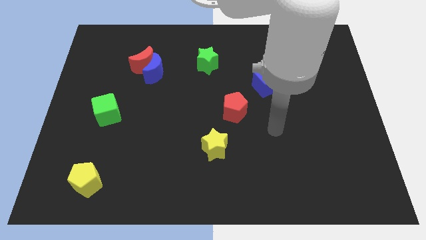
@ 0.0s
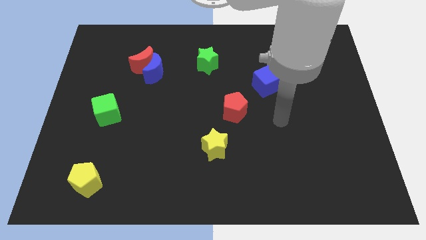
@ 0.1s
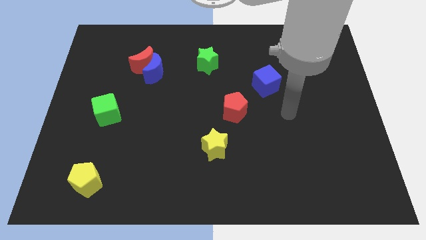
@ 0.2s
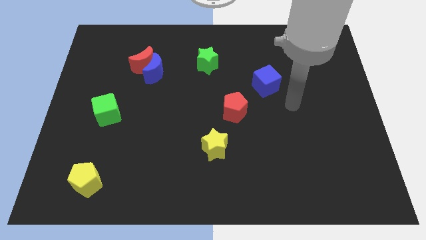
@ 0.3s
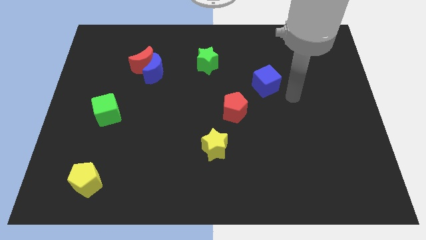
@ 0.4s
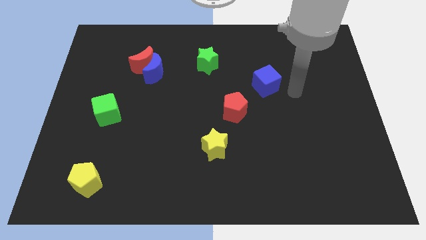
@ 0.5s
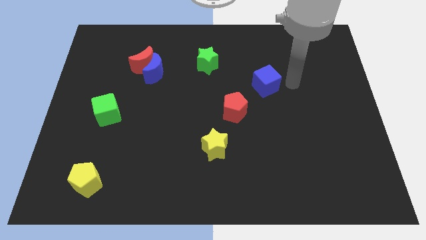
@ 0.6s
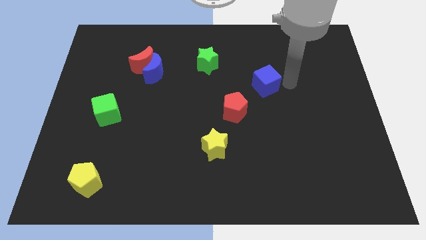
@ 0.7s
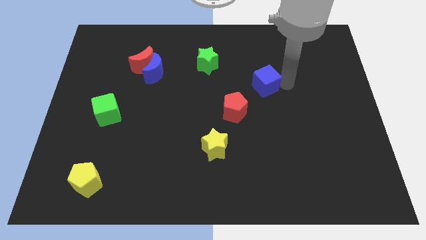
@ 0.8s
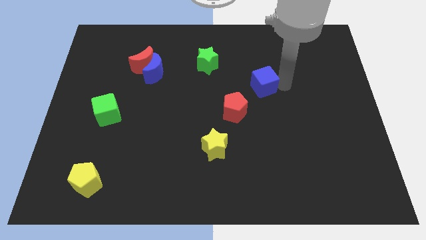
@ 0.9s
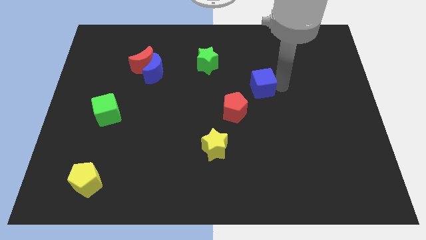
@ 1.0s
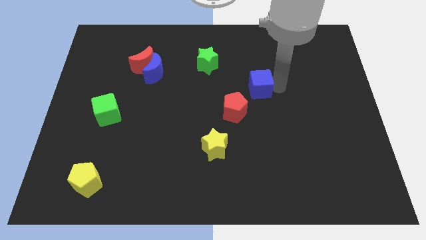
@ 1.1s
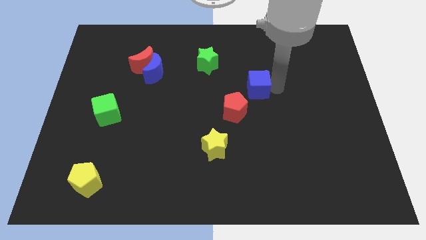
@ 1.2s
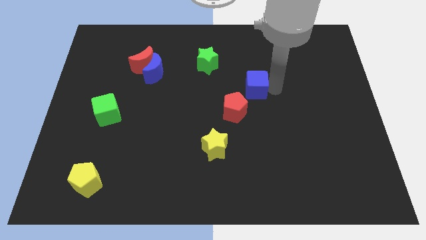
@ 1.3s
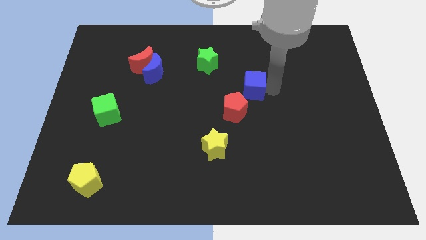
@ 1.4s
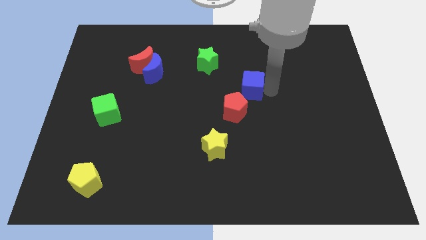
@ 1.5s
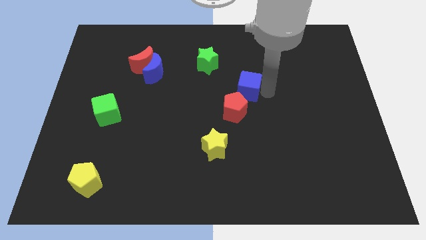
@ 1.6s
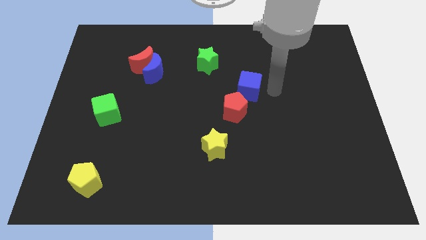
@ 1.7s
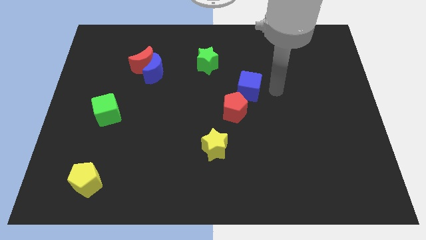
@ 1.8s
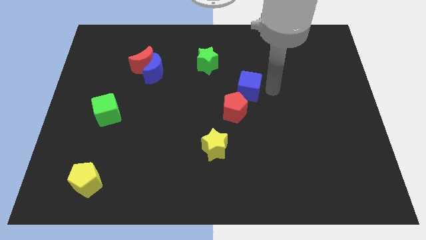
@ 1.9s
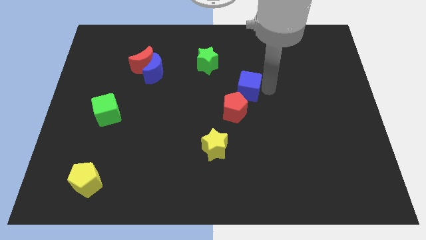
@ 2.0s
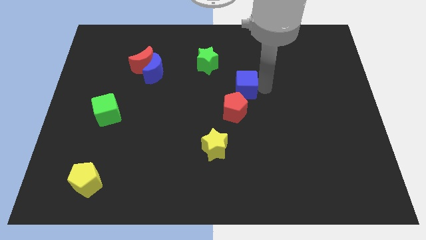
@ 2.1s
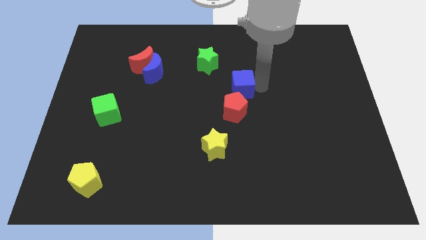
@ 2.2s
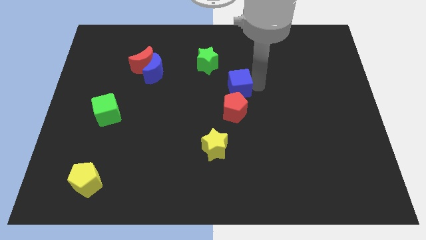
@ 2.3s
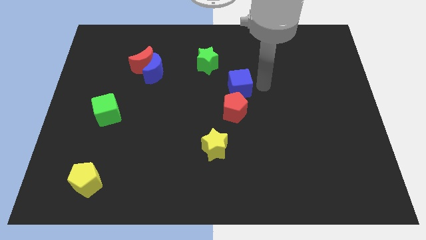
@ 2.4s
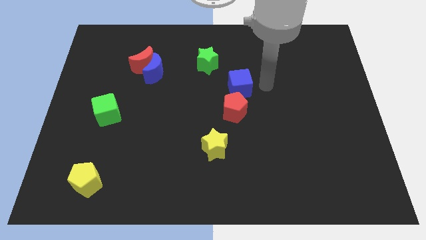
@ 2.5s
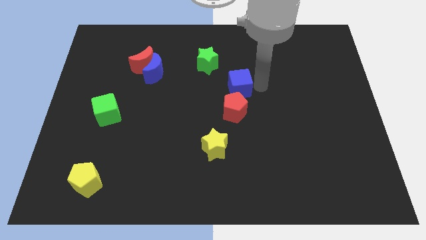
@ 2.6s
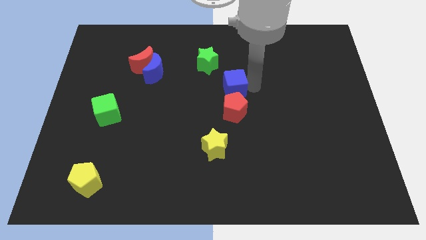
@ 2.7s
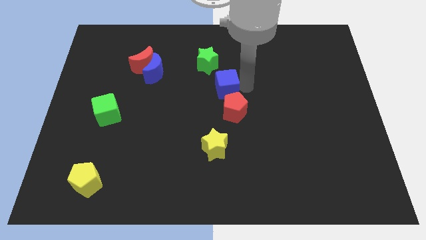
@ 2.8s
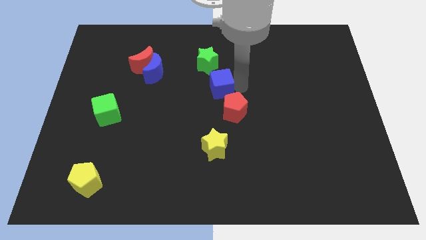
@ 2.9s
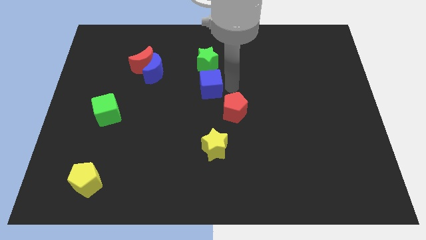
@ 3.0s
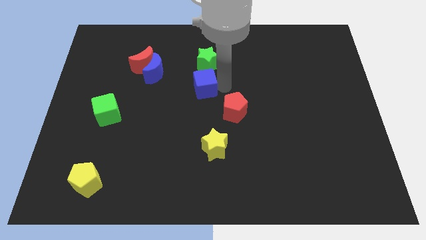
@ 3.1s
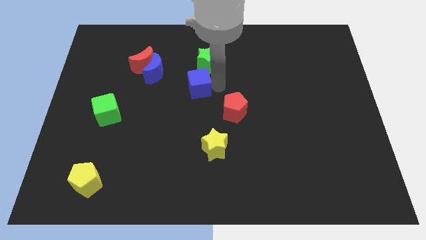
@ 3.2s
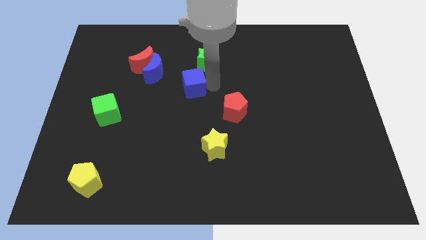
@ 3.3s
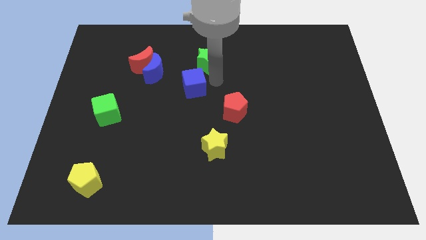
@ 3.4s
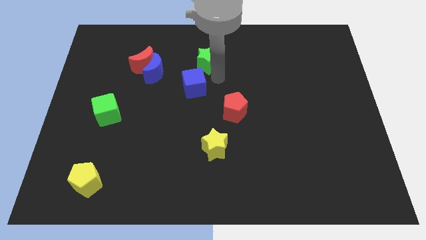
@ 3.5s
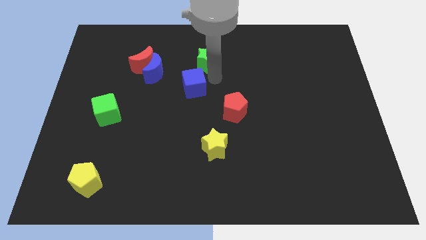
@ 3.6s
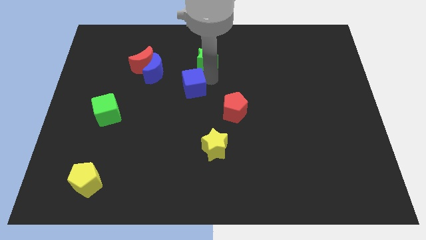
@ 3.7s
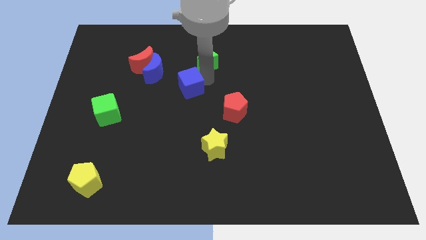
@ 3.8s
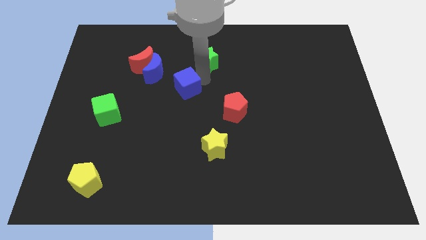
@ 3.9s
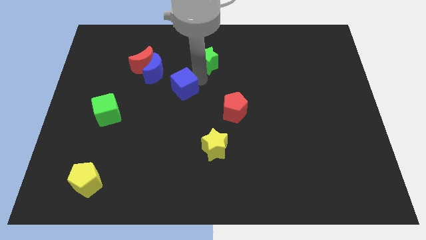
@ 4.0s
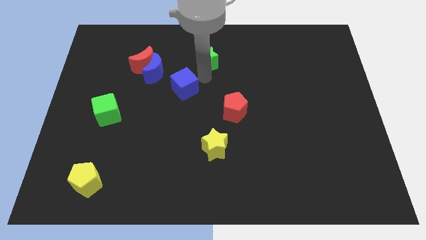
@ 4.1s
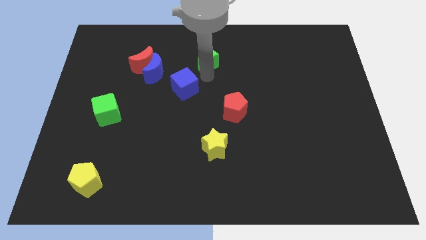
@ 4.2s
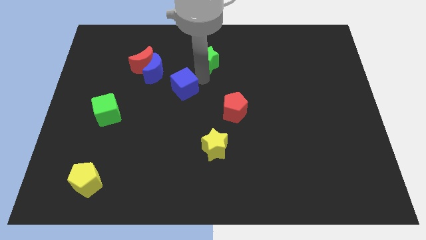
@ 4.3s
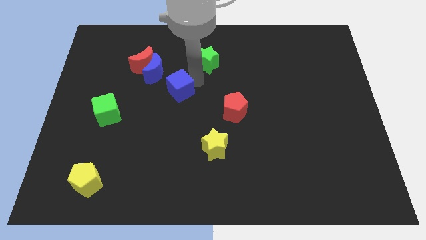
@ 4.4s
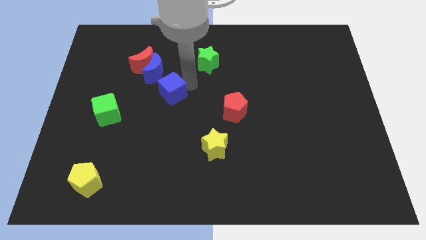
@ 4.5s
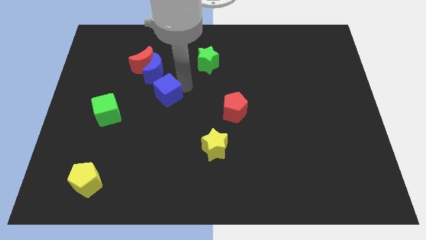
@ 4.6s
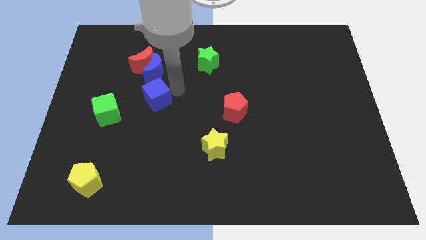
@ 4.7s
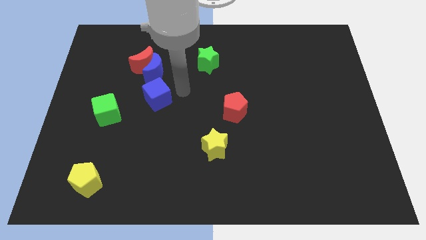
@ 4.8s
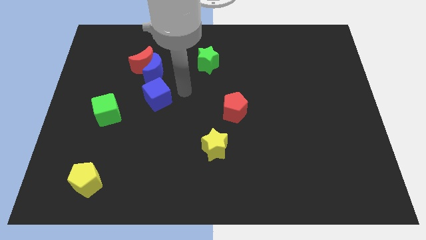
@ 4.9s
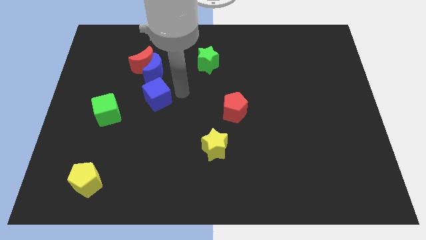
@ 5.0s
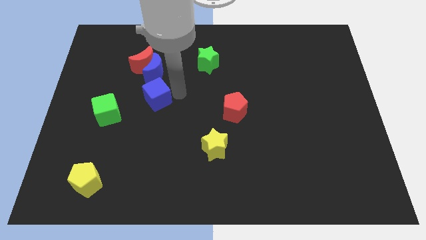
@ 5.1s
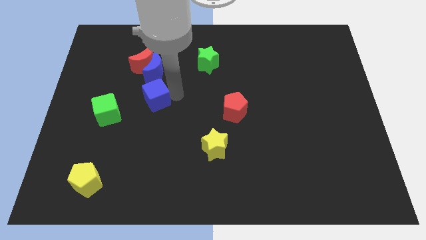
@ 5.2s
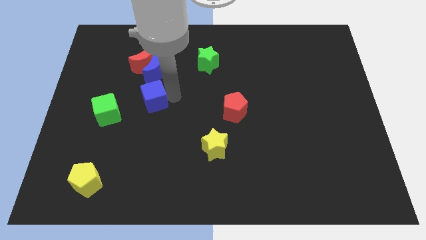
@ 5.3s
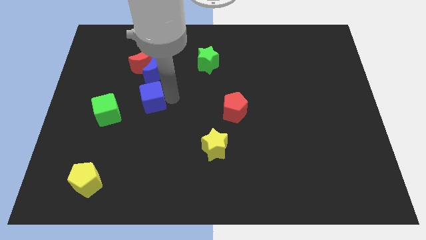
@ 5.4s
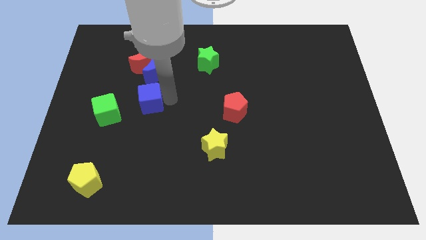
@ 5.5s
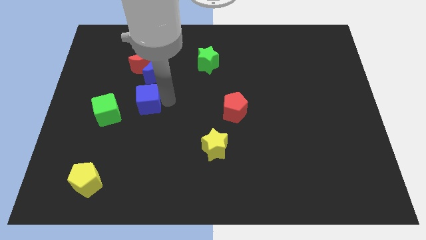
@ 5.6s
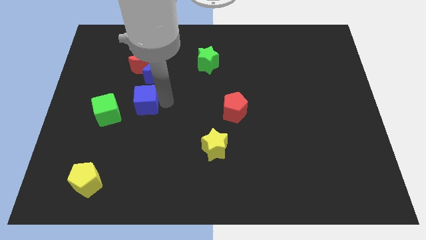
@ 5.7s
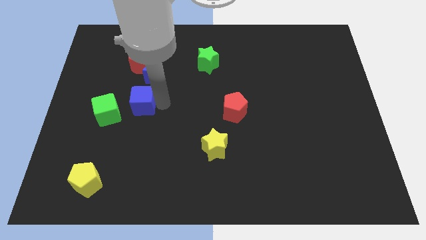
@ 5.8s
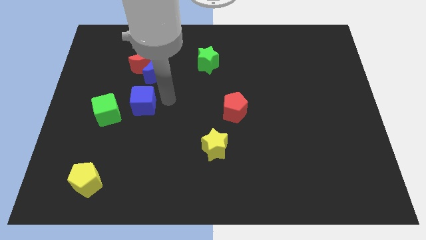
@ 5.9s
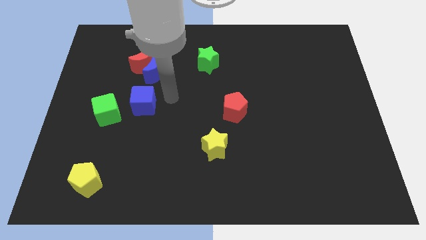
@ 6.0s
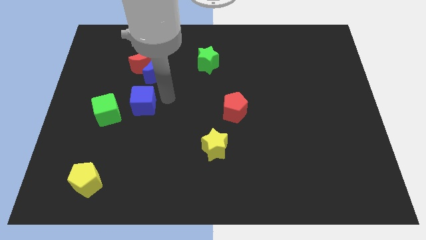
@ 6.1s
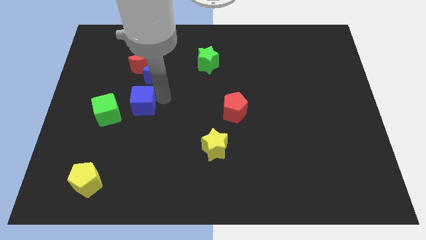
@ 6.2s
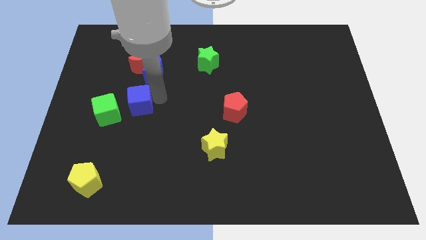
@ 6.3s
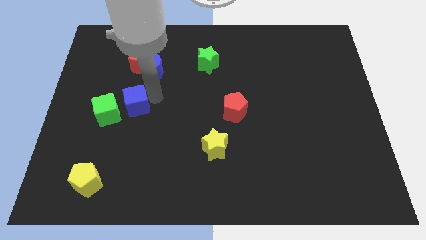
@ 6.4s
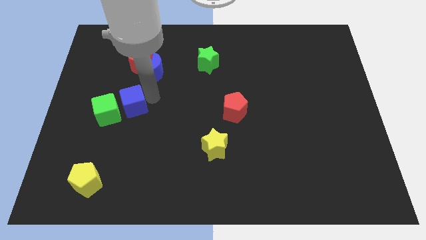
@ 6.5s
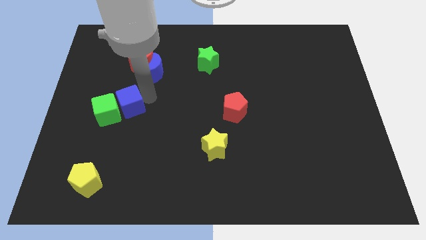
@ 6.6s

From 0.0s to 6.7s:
slide the blue cube to the green cube

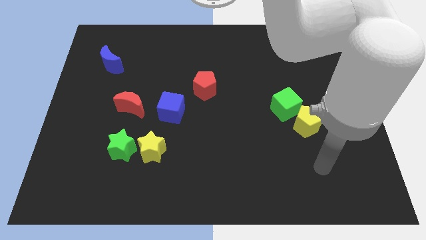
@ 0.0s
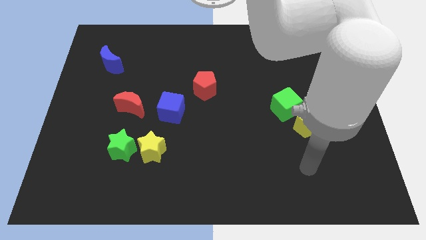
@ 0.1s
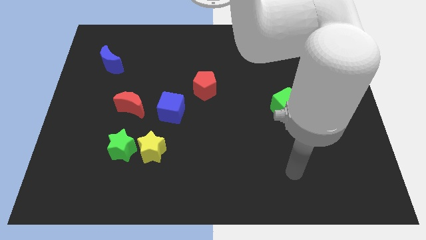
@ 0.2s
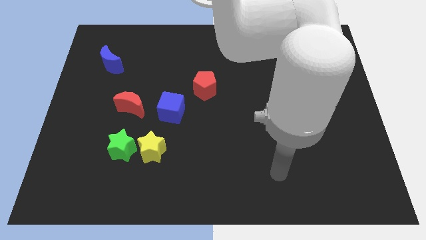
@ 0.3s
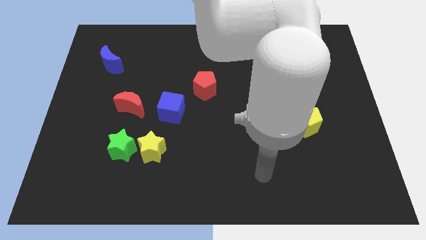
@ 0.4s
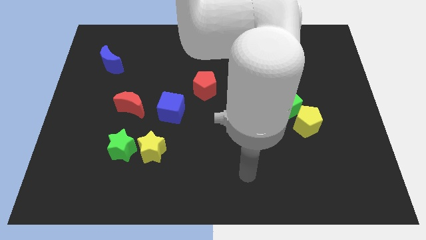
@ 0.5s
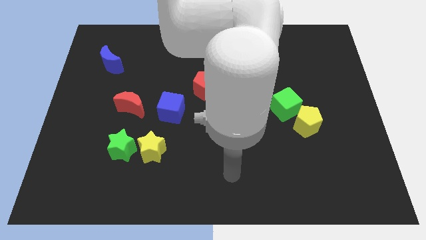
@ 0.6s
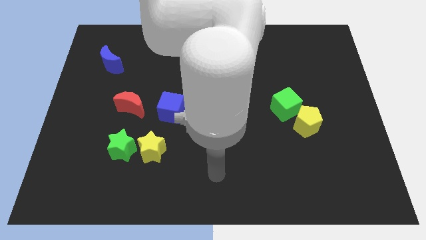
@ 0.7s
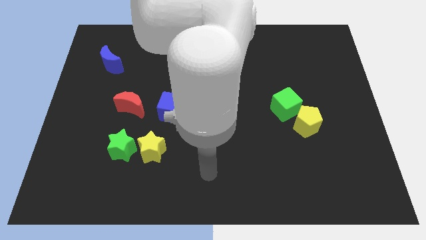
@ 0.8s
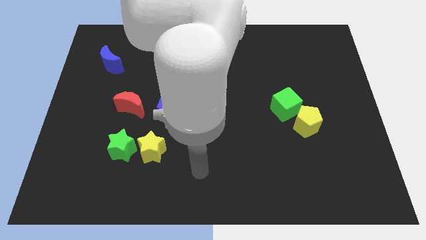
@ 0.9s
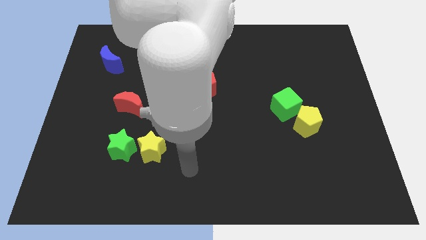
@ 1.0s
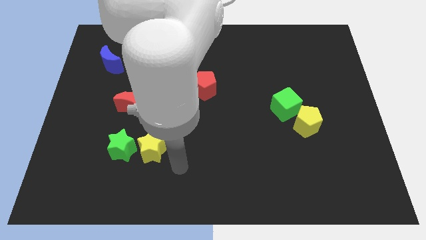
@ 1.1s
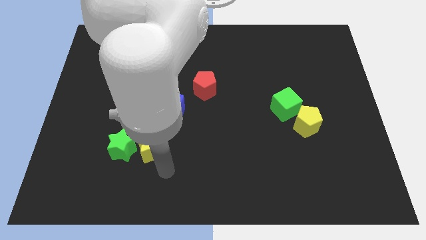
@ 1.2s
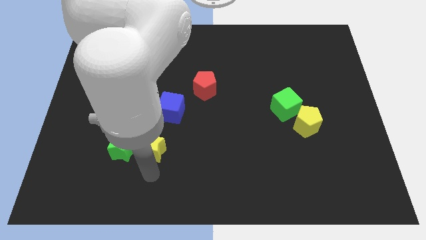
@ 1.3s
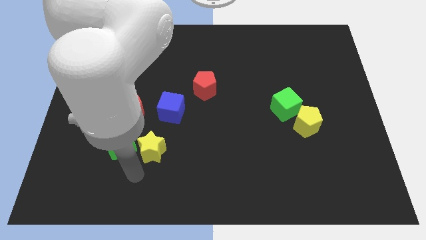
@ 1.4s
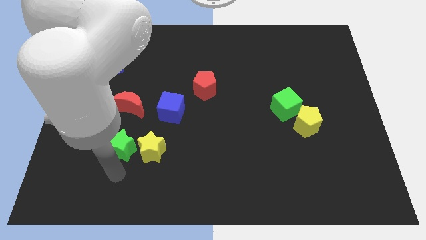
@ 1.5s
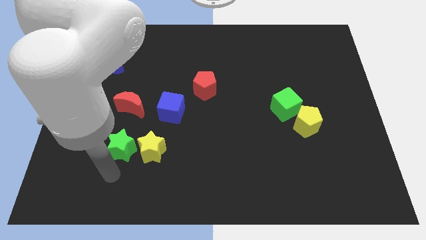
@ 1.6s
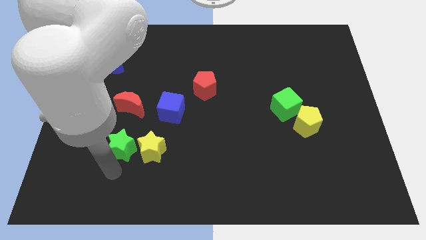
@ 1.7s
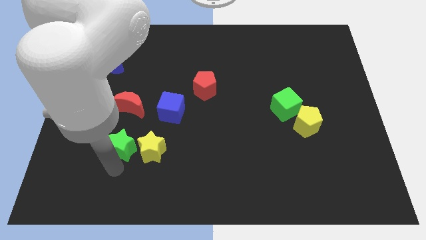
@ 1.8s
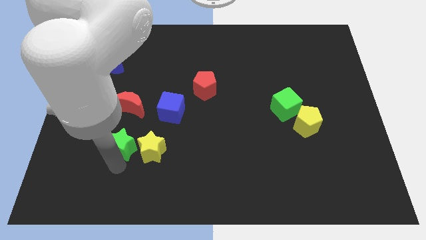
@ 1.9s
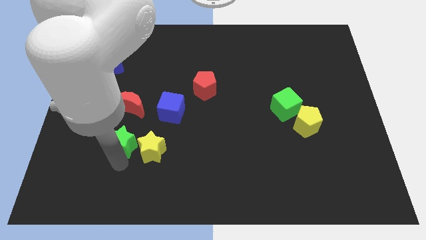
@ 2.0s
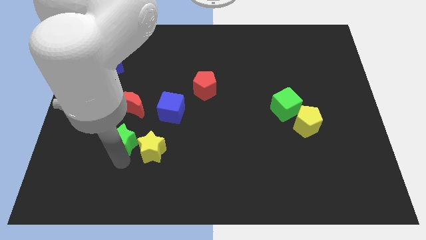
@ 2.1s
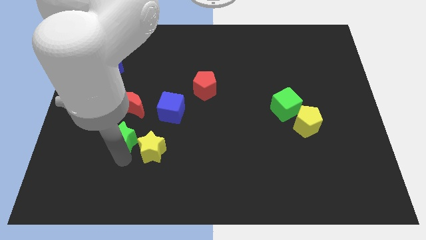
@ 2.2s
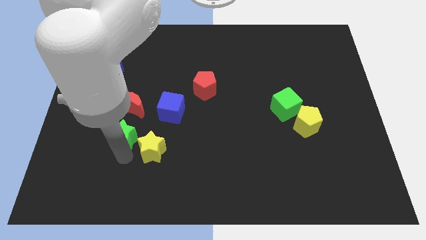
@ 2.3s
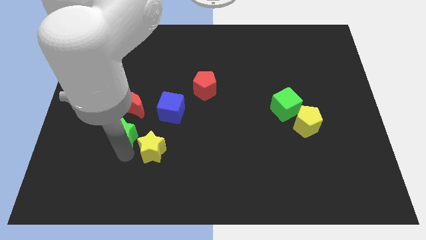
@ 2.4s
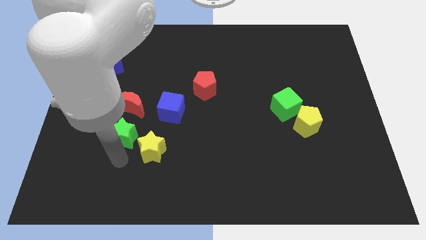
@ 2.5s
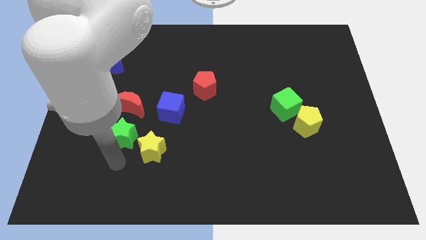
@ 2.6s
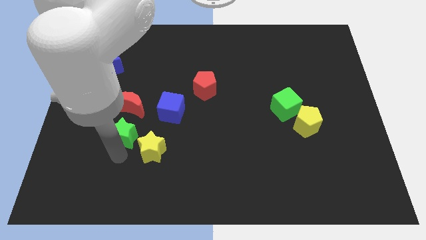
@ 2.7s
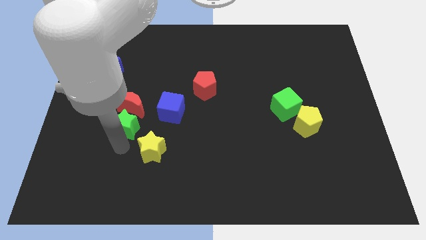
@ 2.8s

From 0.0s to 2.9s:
push the green star close to the red moon
